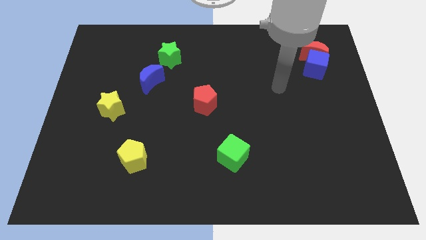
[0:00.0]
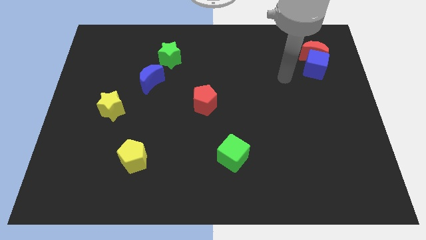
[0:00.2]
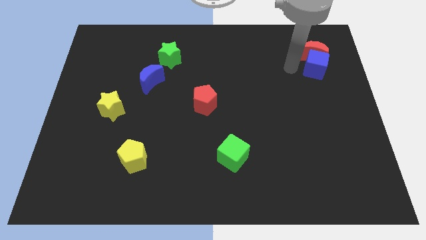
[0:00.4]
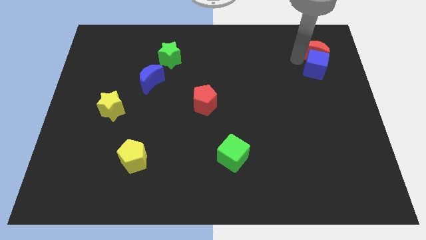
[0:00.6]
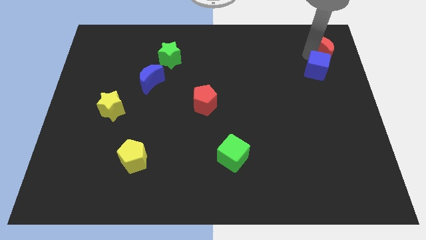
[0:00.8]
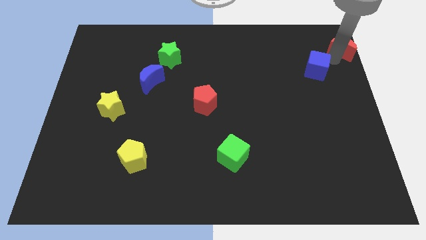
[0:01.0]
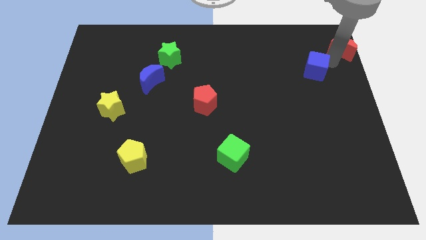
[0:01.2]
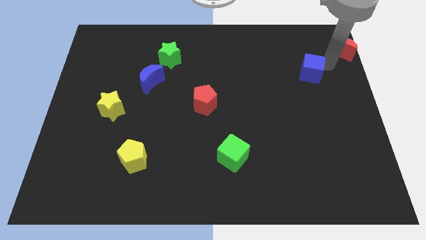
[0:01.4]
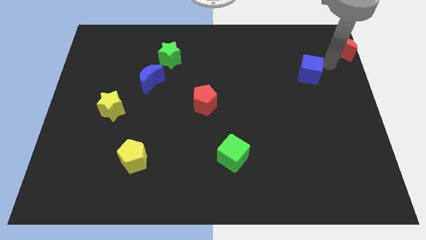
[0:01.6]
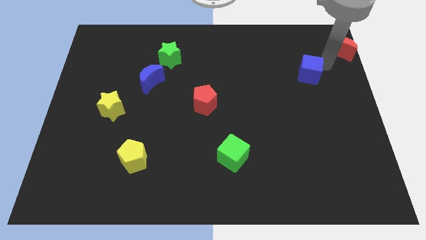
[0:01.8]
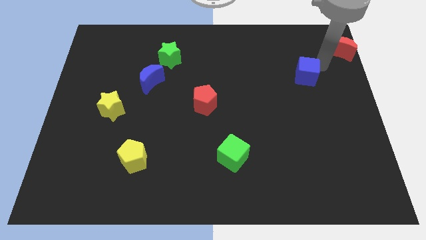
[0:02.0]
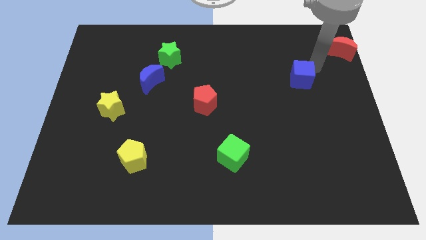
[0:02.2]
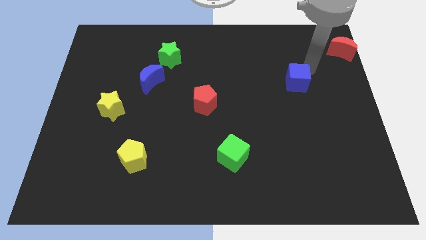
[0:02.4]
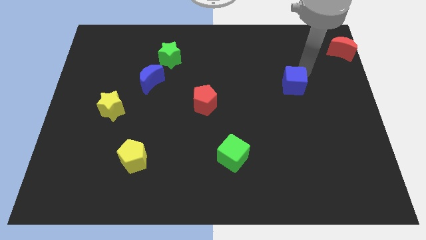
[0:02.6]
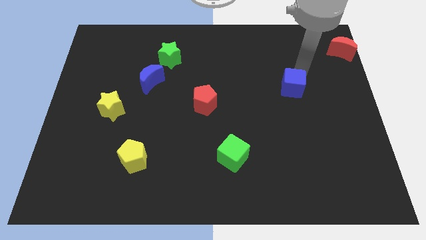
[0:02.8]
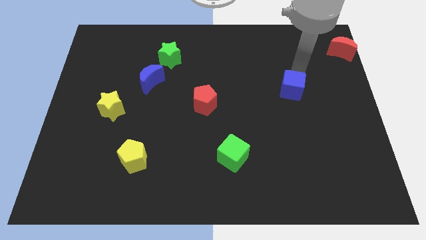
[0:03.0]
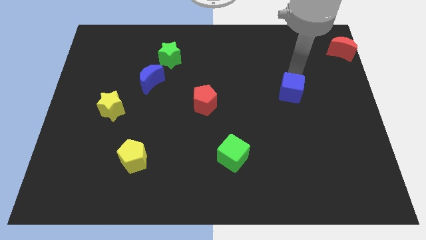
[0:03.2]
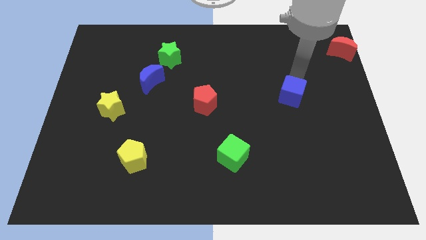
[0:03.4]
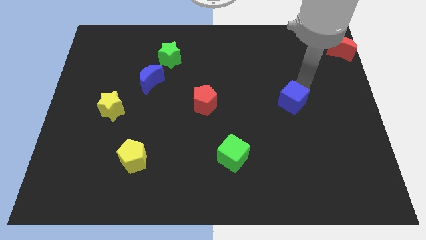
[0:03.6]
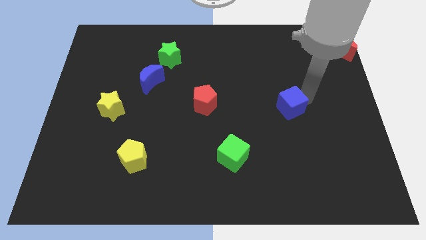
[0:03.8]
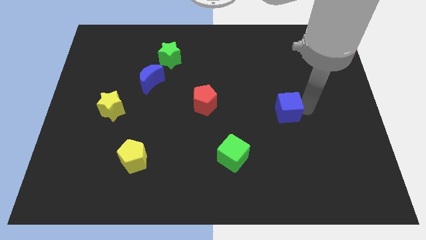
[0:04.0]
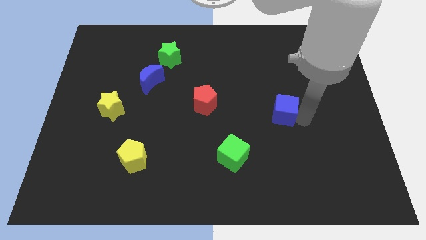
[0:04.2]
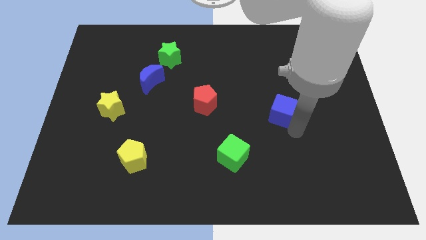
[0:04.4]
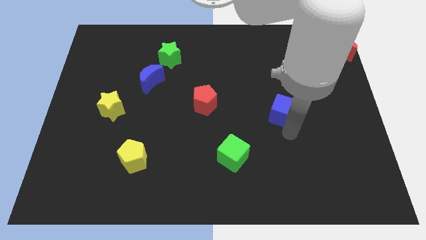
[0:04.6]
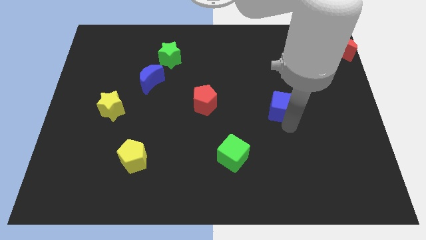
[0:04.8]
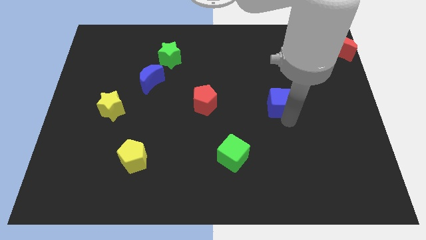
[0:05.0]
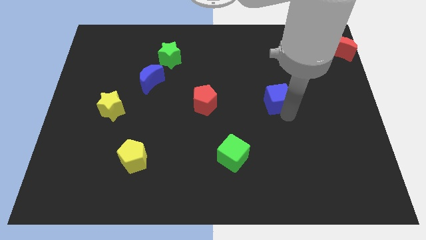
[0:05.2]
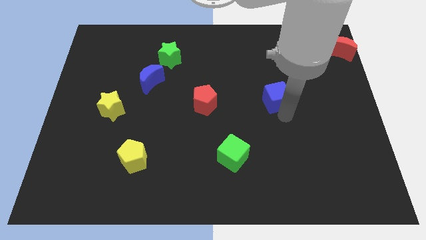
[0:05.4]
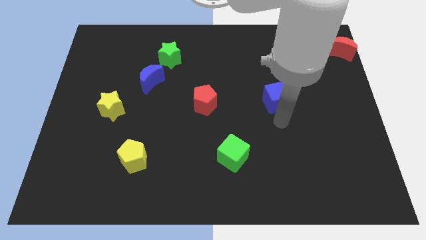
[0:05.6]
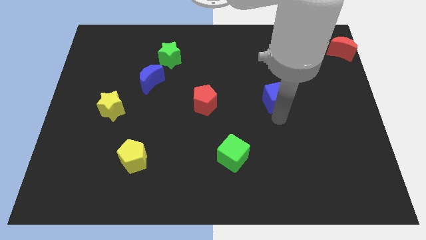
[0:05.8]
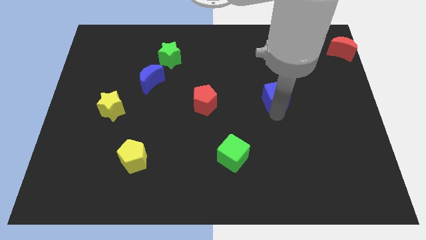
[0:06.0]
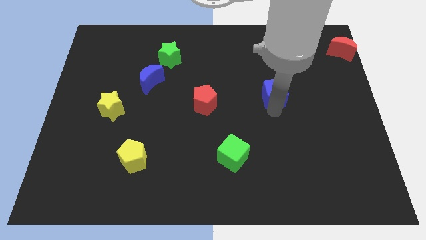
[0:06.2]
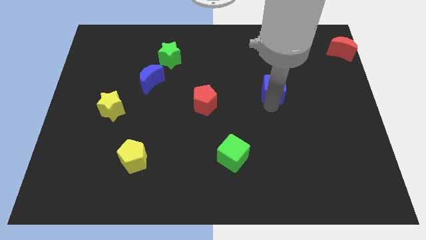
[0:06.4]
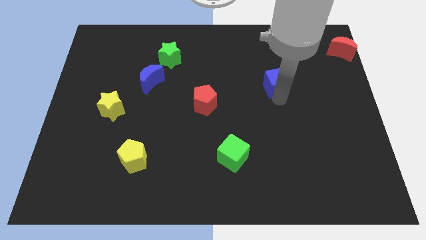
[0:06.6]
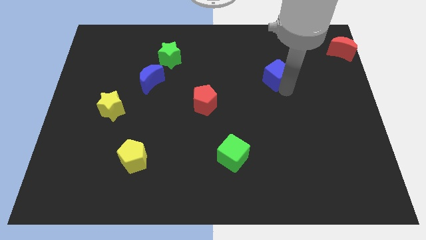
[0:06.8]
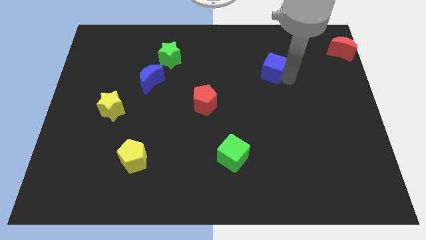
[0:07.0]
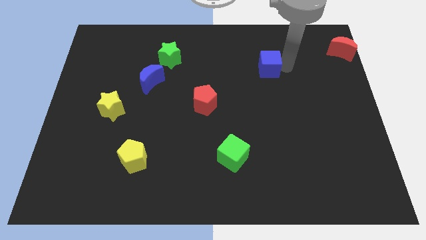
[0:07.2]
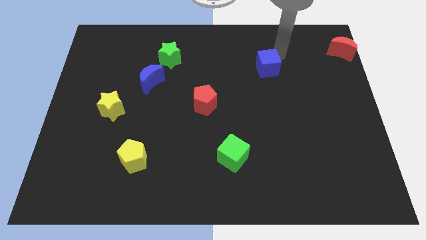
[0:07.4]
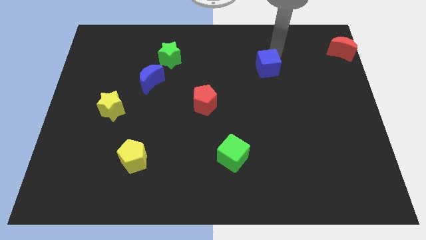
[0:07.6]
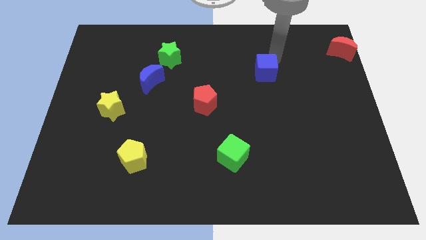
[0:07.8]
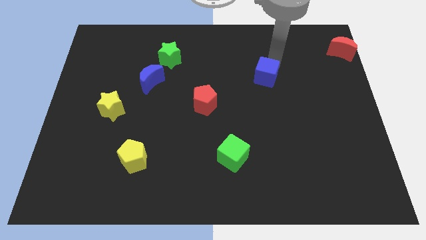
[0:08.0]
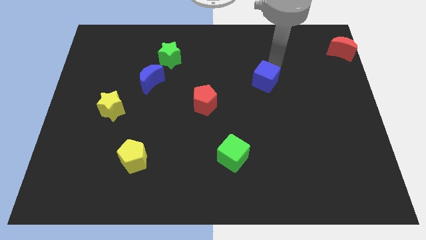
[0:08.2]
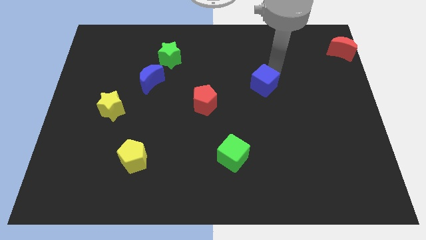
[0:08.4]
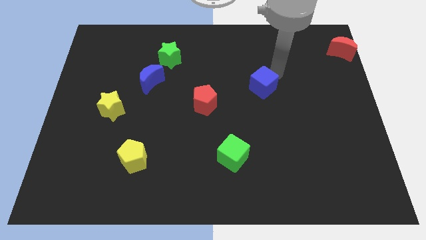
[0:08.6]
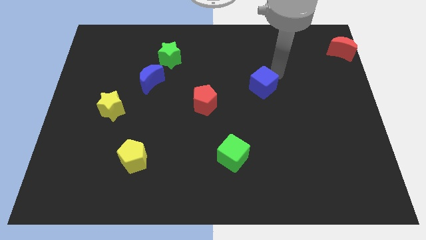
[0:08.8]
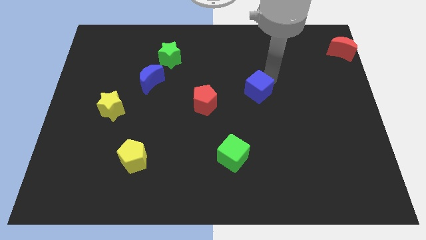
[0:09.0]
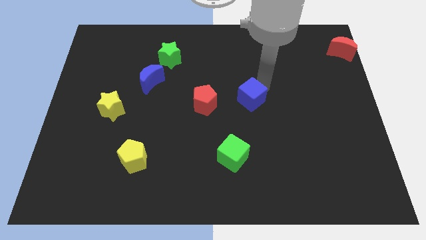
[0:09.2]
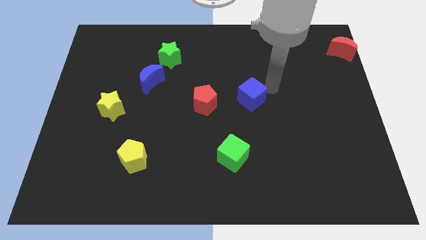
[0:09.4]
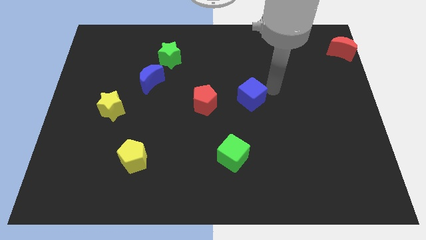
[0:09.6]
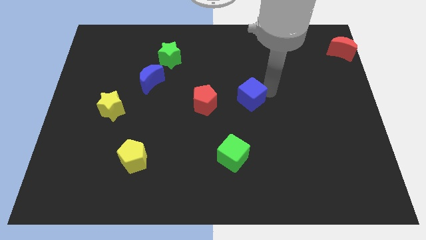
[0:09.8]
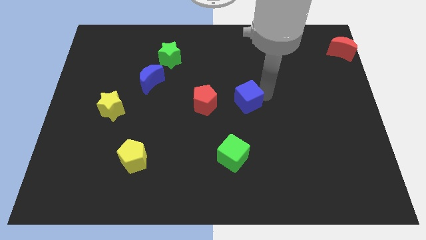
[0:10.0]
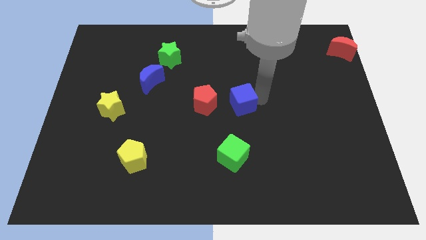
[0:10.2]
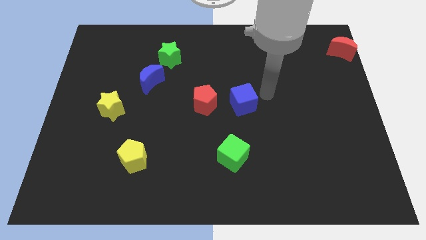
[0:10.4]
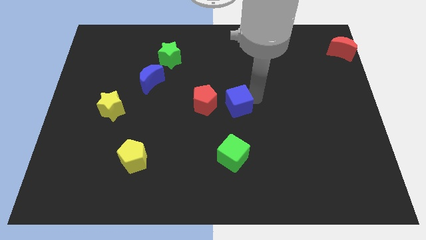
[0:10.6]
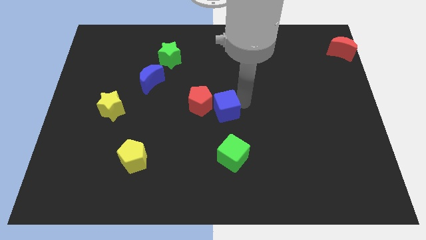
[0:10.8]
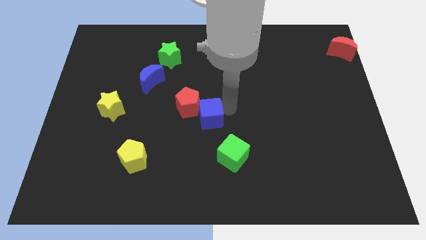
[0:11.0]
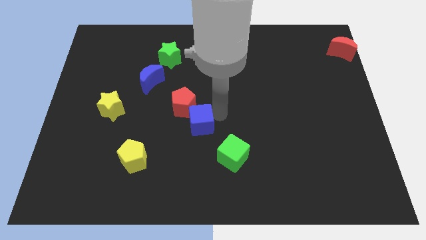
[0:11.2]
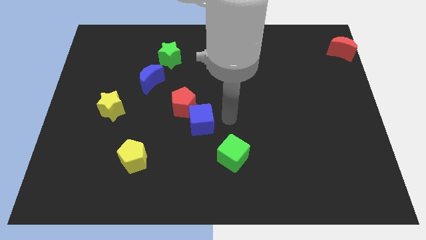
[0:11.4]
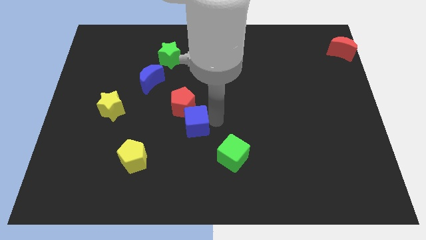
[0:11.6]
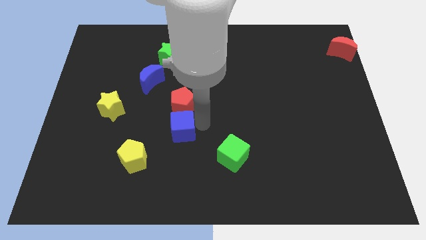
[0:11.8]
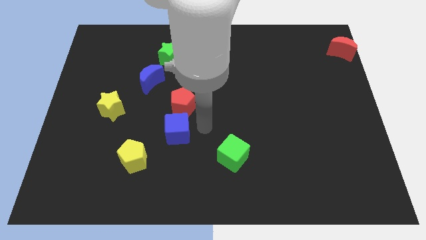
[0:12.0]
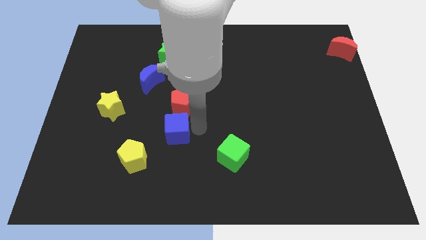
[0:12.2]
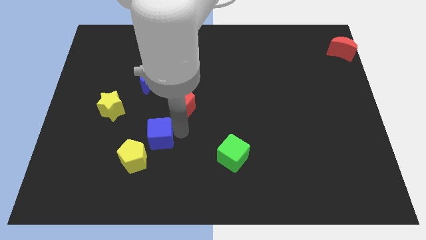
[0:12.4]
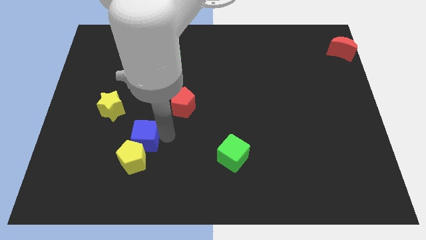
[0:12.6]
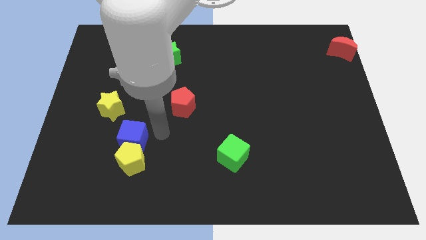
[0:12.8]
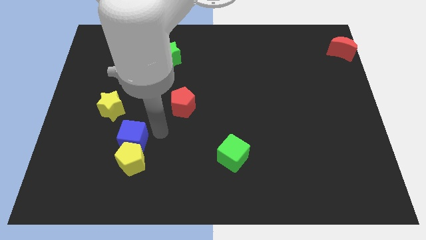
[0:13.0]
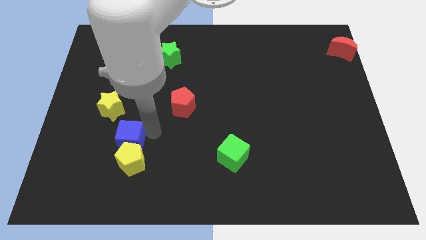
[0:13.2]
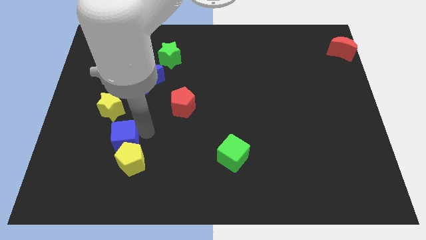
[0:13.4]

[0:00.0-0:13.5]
push the blue cube below the yellow star
